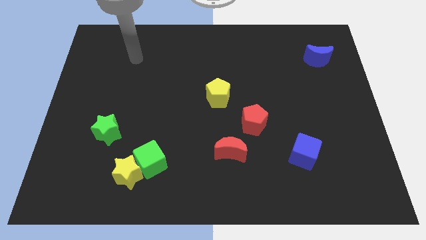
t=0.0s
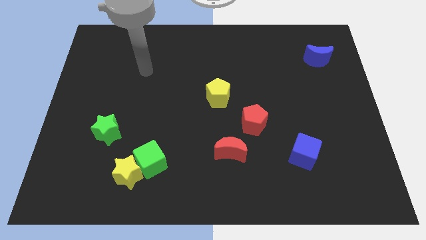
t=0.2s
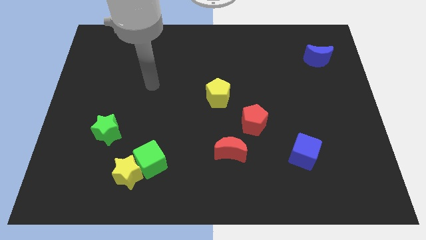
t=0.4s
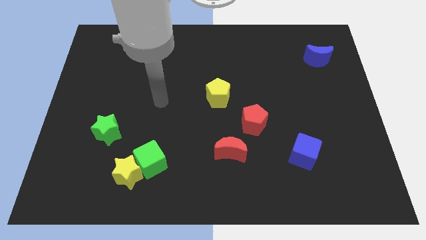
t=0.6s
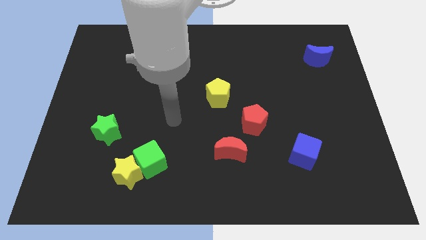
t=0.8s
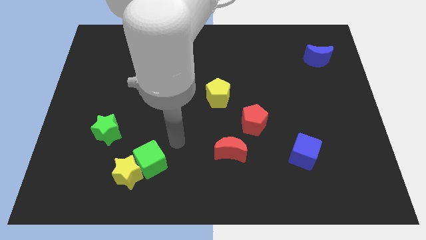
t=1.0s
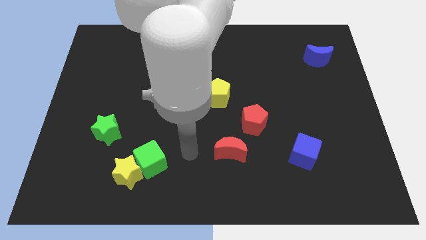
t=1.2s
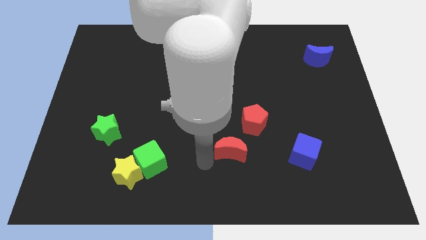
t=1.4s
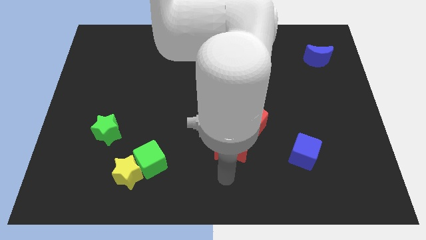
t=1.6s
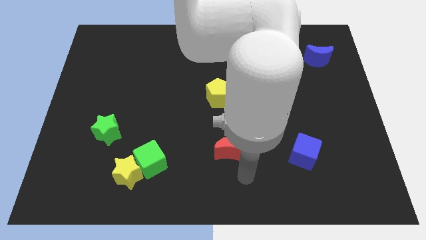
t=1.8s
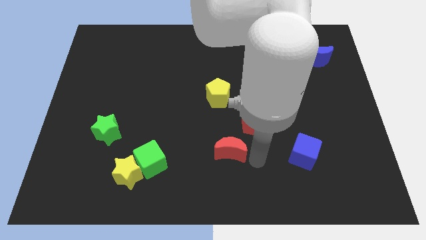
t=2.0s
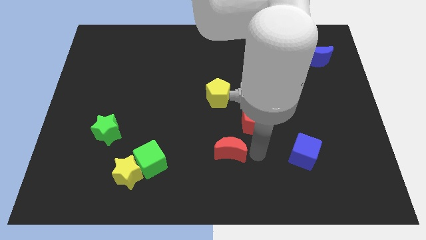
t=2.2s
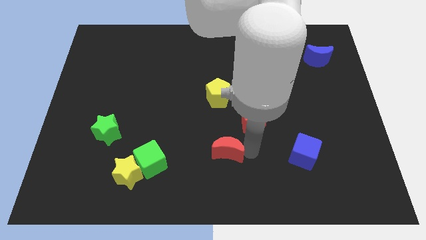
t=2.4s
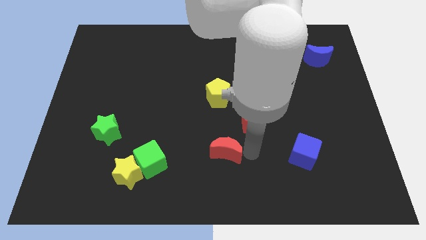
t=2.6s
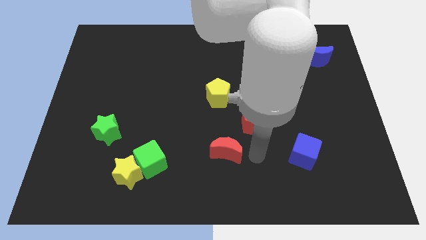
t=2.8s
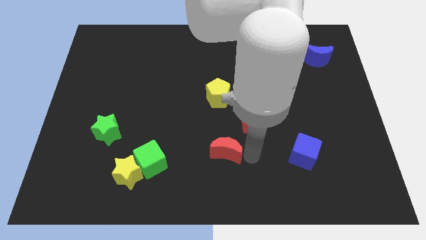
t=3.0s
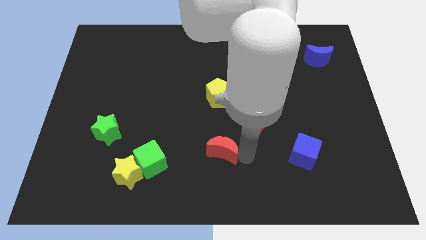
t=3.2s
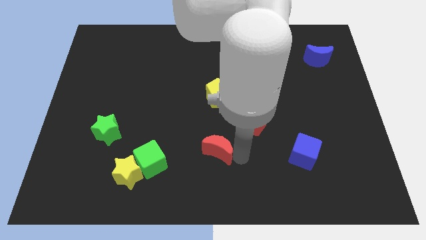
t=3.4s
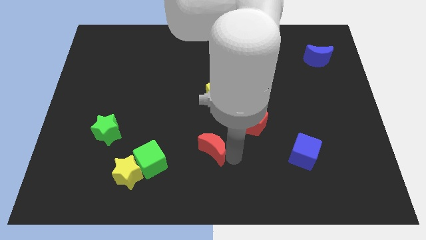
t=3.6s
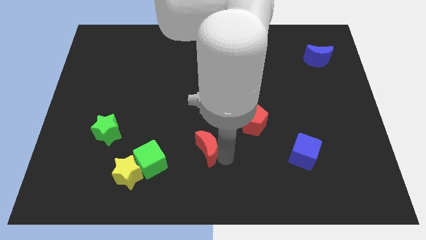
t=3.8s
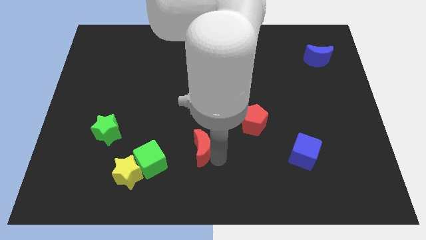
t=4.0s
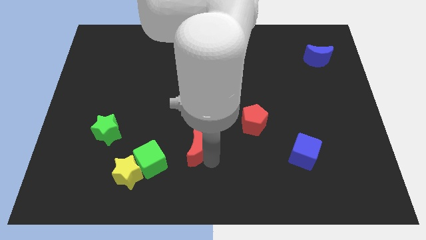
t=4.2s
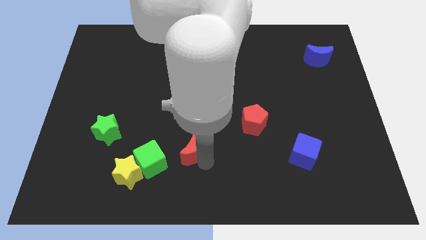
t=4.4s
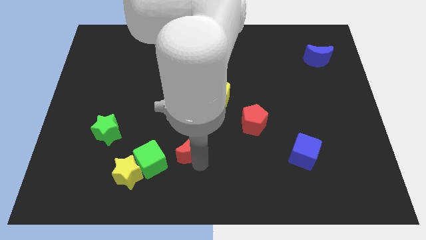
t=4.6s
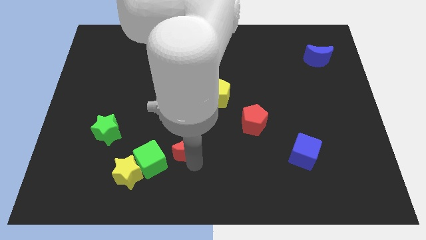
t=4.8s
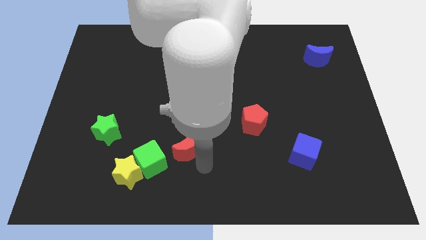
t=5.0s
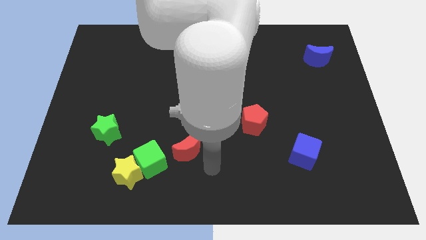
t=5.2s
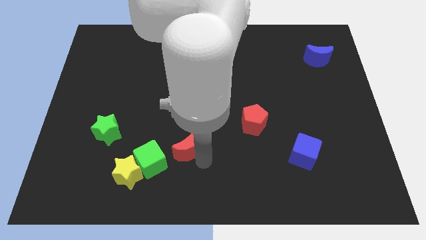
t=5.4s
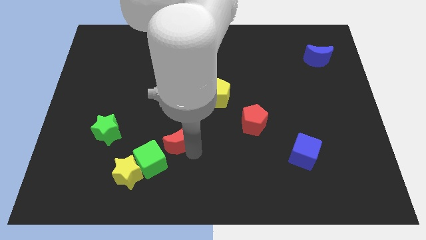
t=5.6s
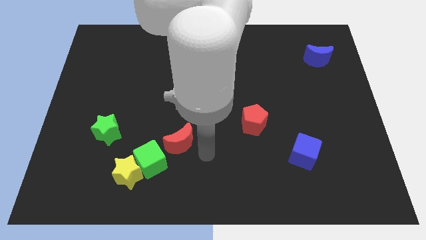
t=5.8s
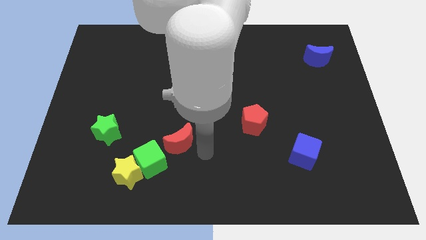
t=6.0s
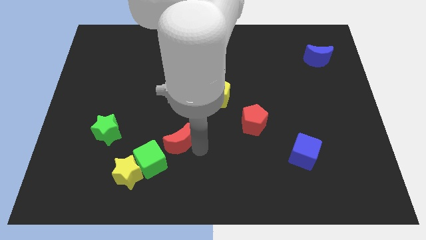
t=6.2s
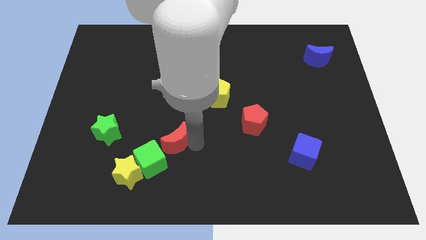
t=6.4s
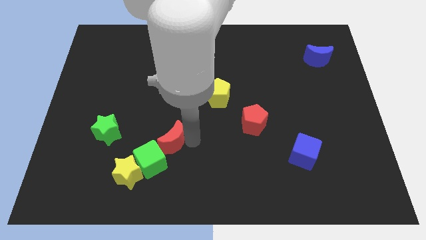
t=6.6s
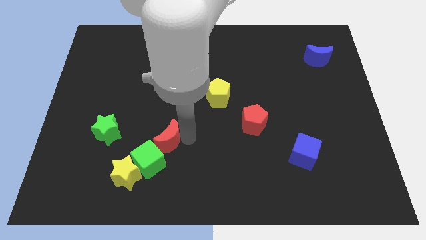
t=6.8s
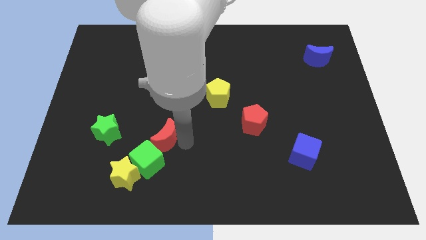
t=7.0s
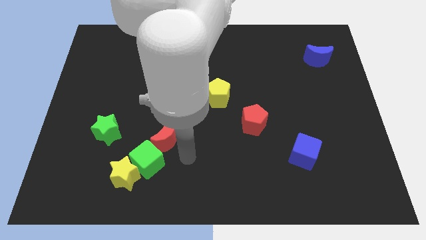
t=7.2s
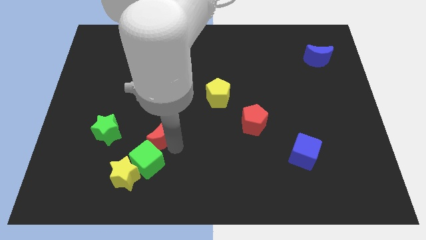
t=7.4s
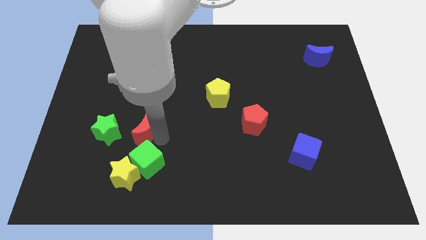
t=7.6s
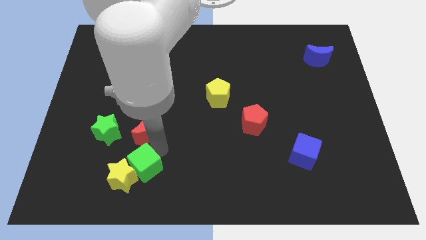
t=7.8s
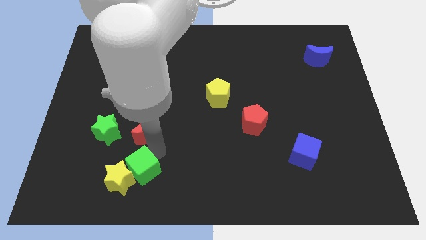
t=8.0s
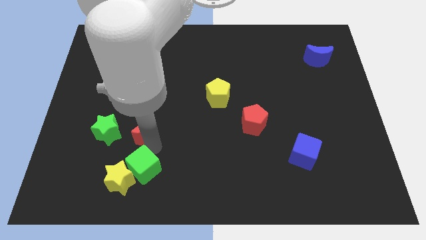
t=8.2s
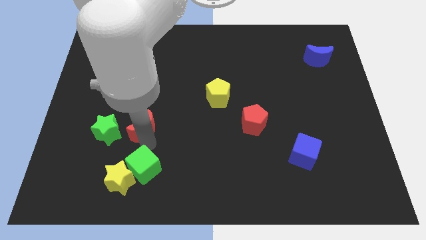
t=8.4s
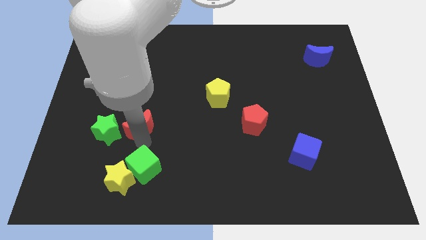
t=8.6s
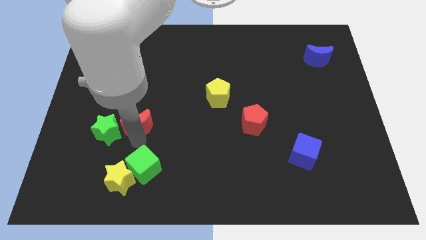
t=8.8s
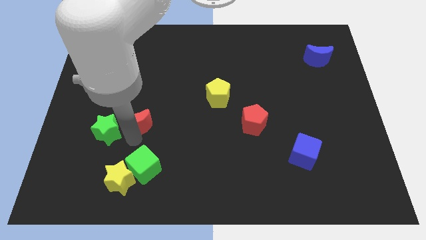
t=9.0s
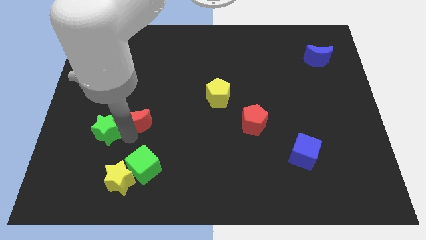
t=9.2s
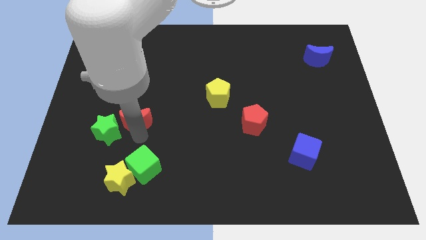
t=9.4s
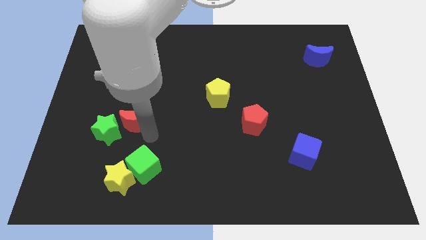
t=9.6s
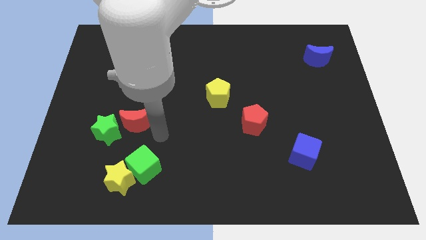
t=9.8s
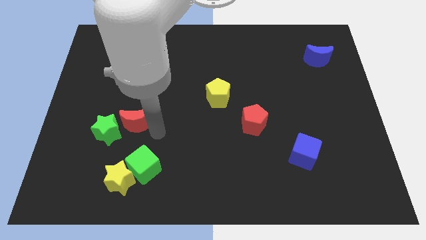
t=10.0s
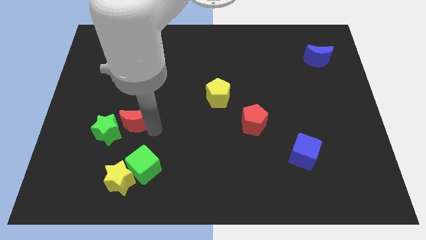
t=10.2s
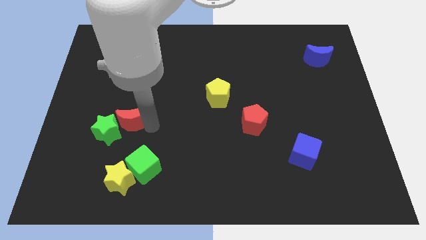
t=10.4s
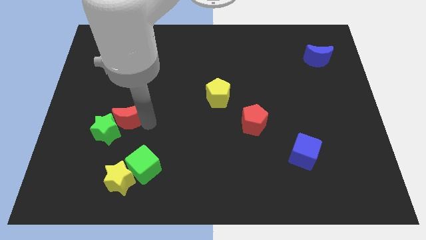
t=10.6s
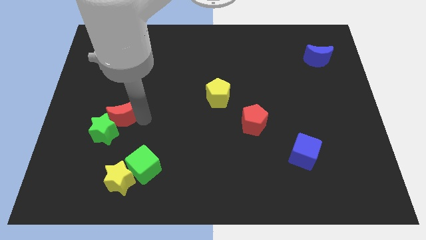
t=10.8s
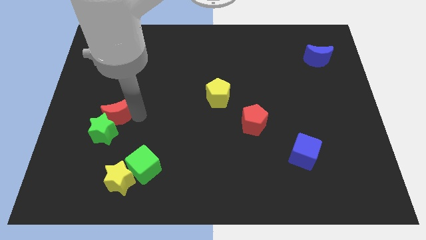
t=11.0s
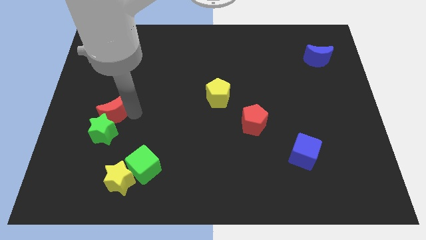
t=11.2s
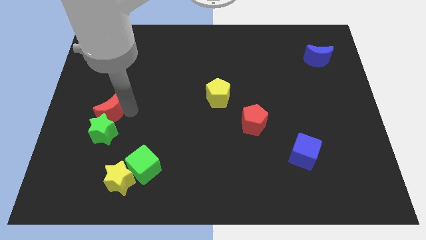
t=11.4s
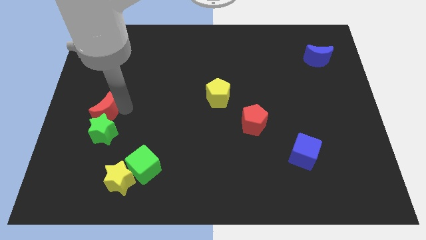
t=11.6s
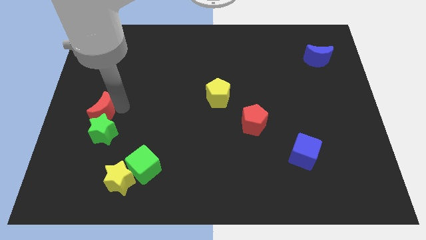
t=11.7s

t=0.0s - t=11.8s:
slide the red moon to the left side
